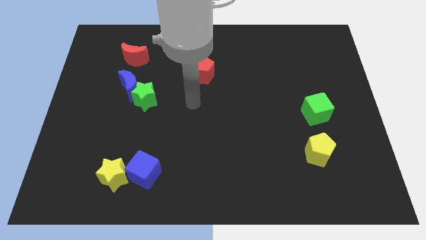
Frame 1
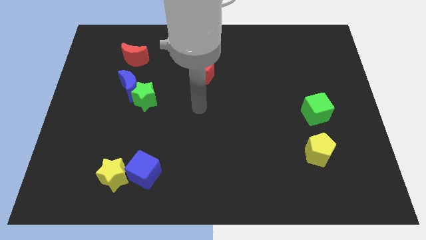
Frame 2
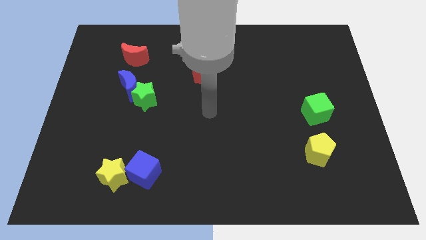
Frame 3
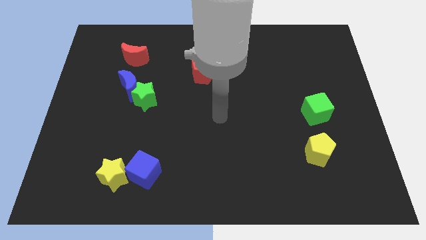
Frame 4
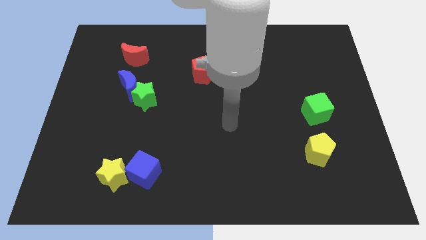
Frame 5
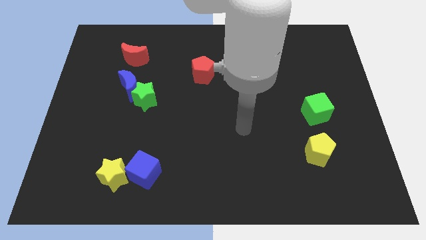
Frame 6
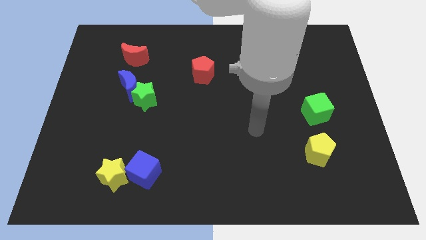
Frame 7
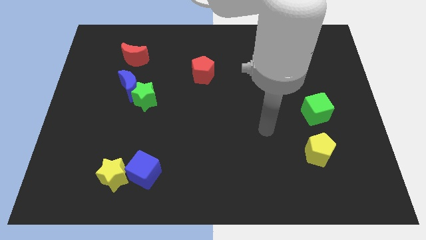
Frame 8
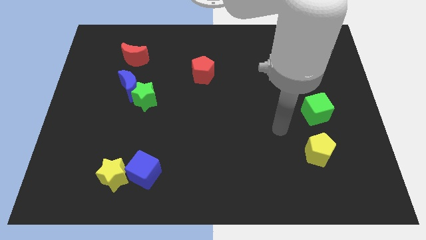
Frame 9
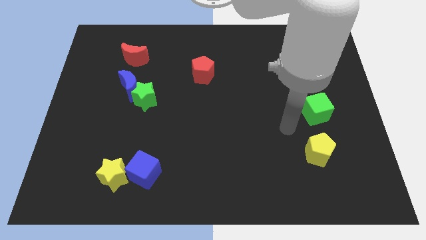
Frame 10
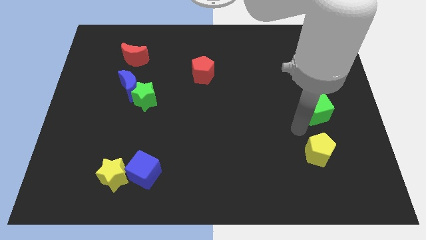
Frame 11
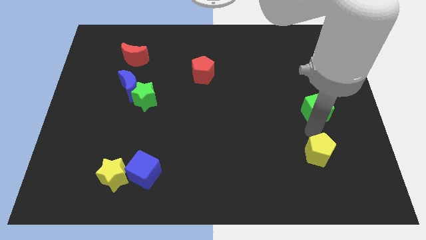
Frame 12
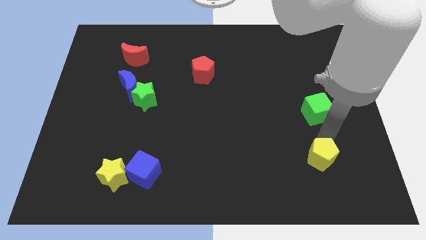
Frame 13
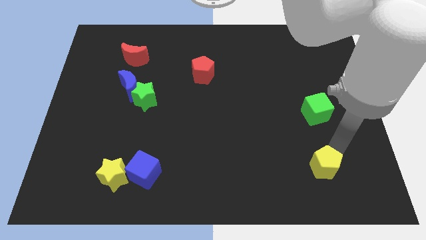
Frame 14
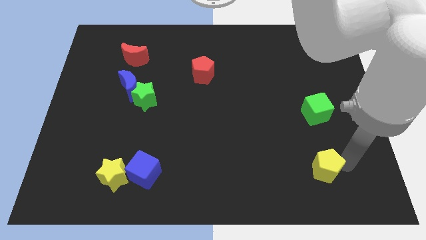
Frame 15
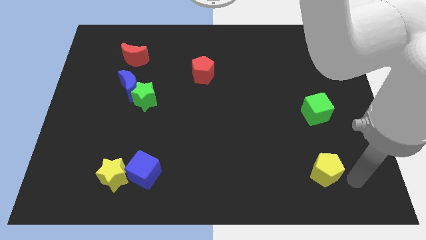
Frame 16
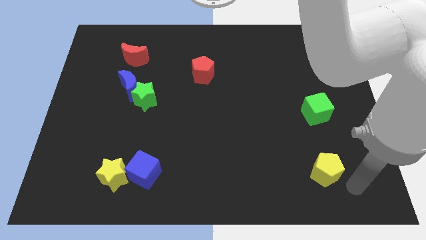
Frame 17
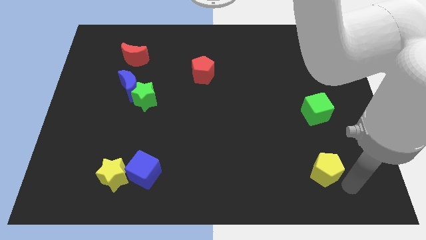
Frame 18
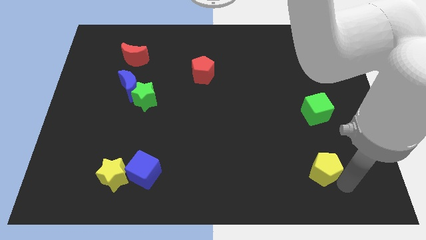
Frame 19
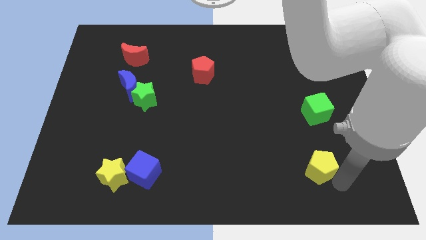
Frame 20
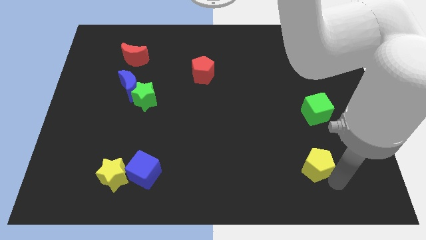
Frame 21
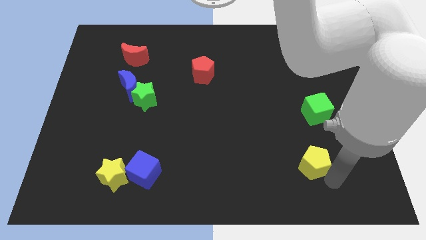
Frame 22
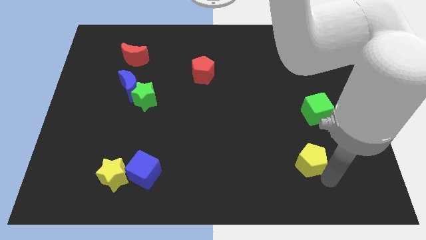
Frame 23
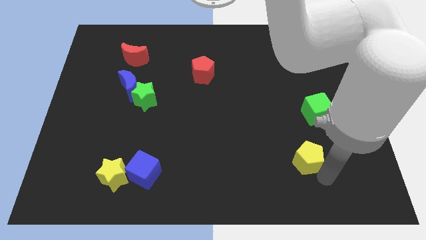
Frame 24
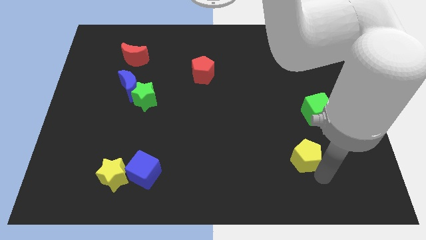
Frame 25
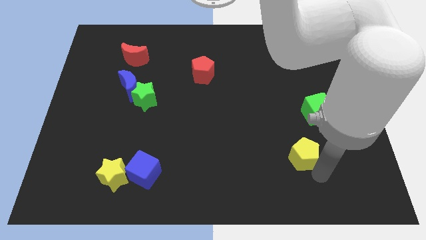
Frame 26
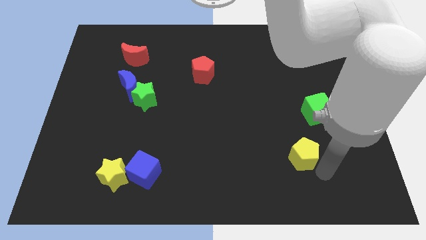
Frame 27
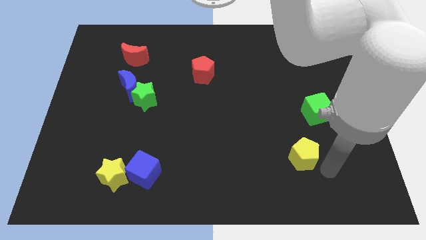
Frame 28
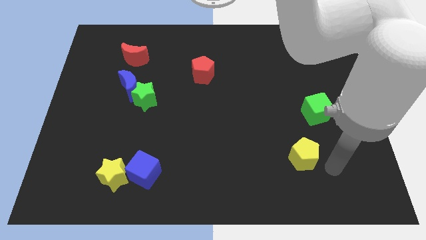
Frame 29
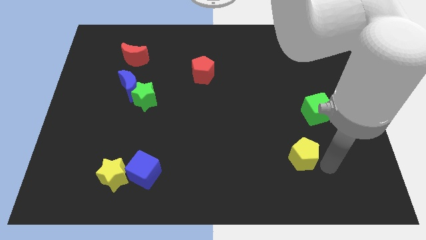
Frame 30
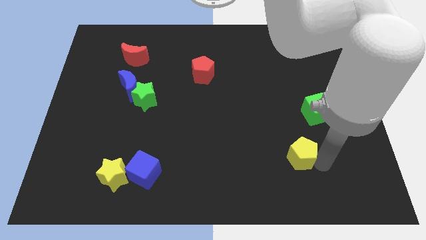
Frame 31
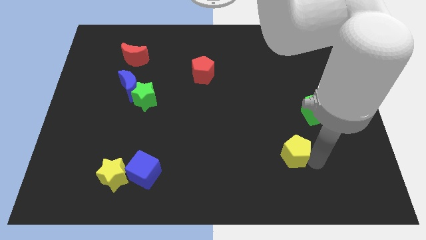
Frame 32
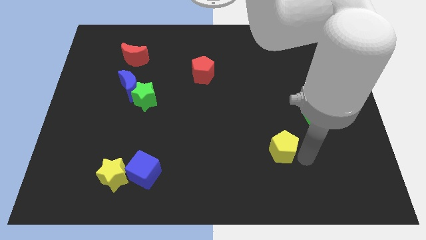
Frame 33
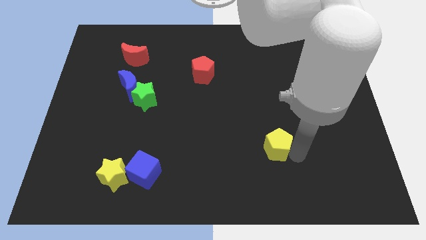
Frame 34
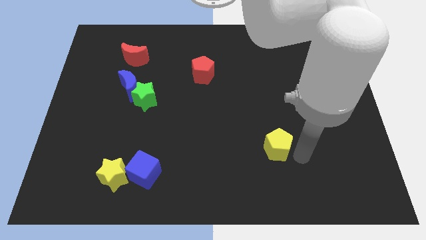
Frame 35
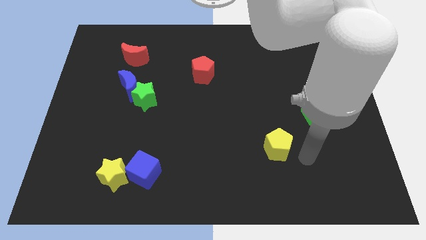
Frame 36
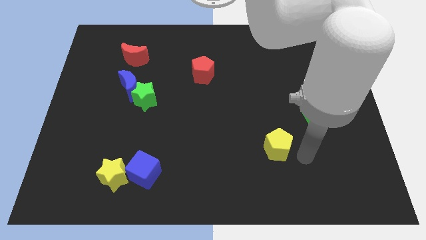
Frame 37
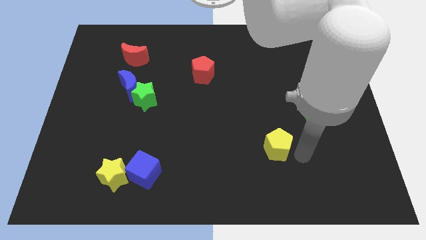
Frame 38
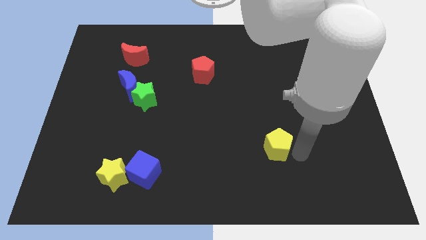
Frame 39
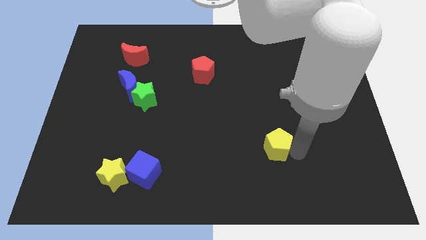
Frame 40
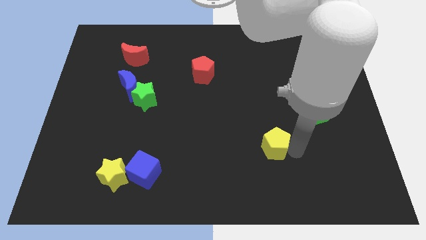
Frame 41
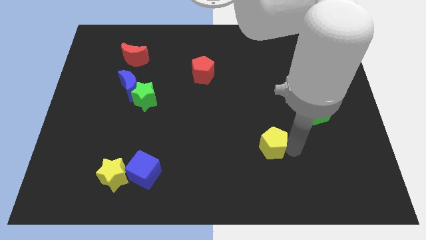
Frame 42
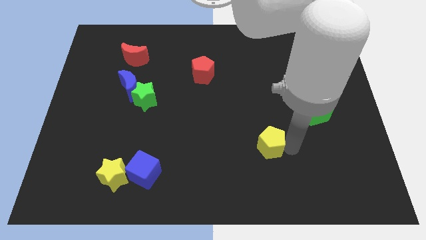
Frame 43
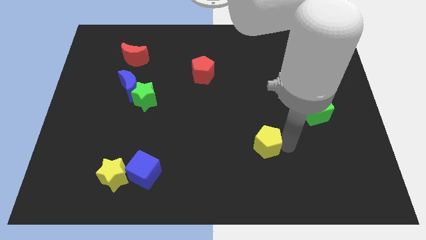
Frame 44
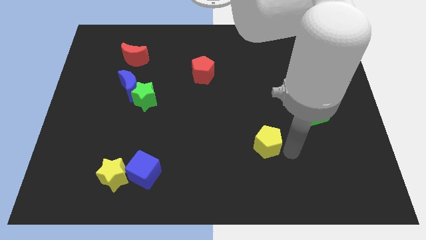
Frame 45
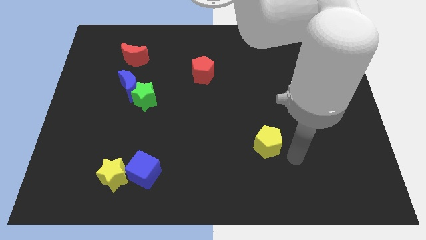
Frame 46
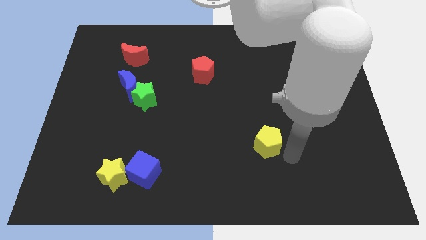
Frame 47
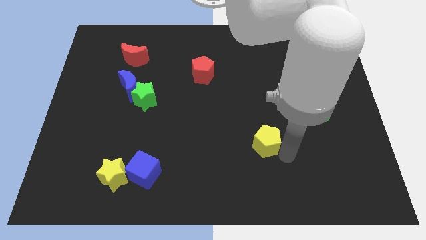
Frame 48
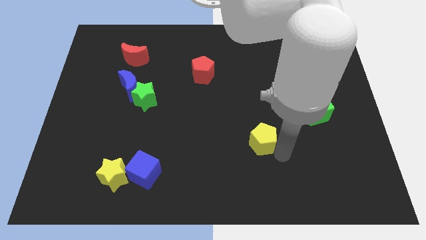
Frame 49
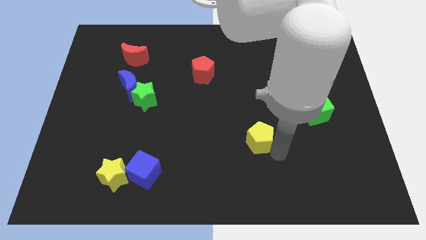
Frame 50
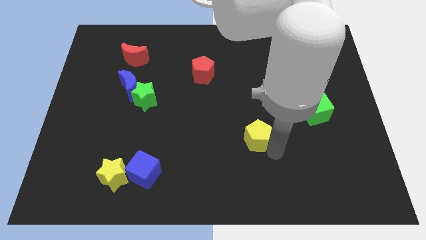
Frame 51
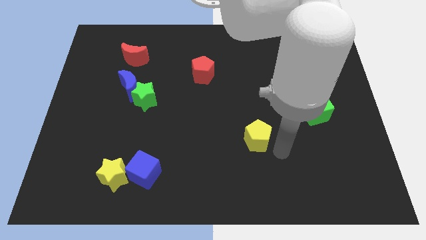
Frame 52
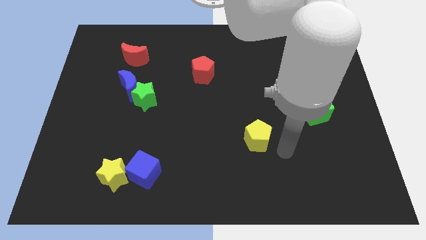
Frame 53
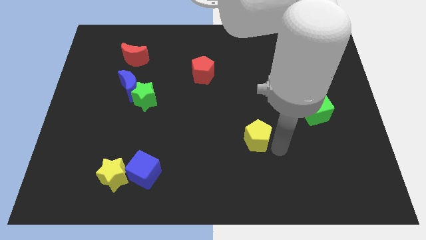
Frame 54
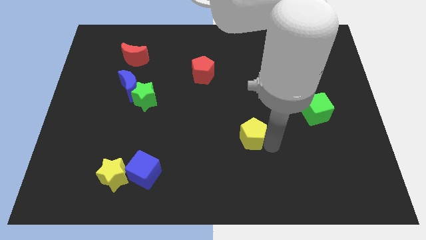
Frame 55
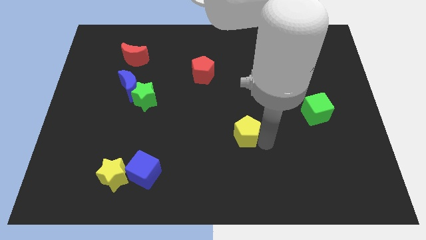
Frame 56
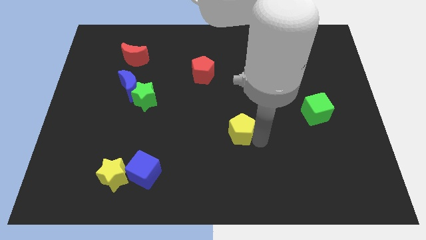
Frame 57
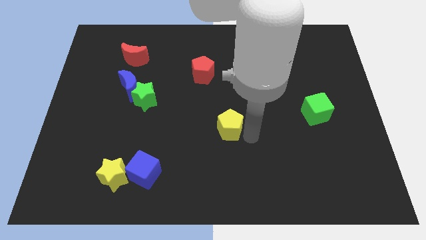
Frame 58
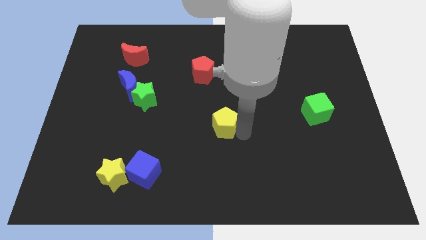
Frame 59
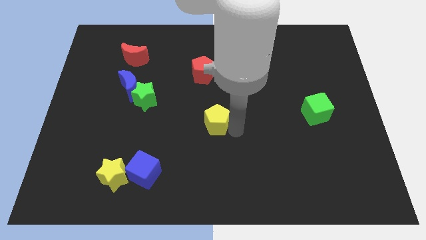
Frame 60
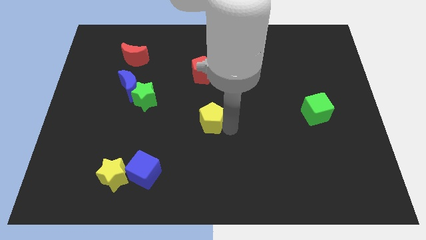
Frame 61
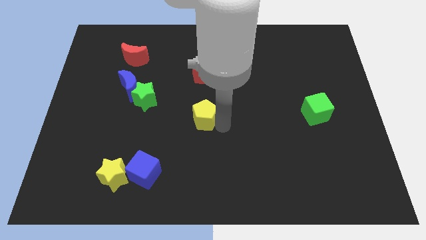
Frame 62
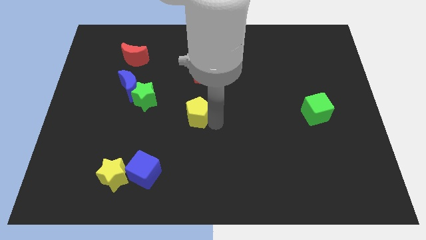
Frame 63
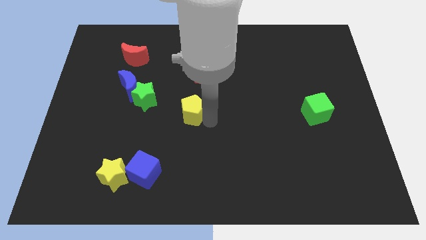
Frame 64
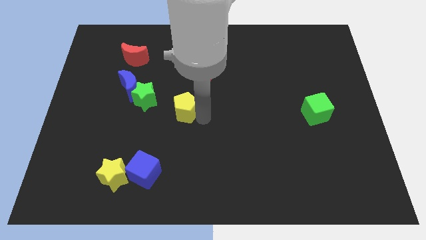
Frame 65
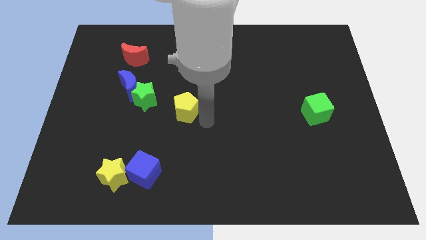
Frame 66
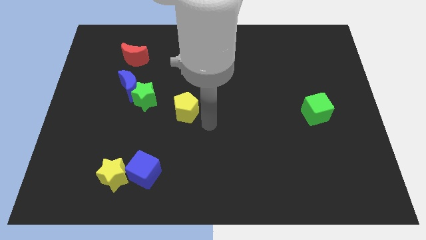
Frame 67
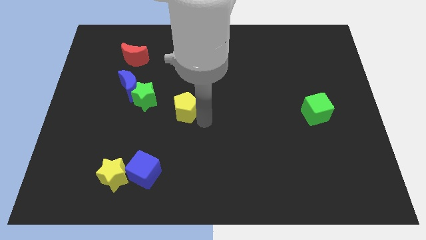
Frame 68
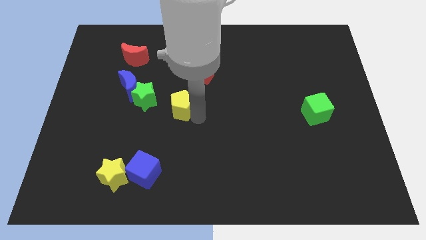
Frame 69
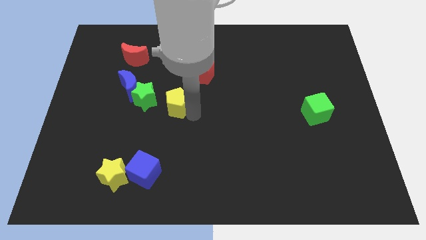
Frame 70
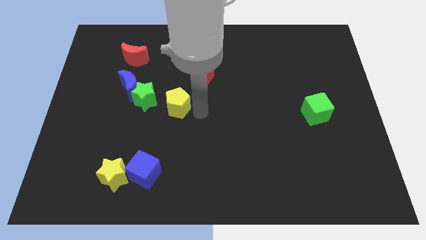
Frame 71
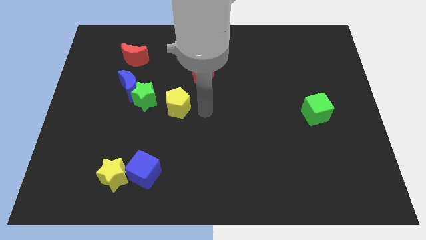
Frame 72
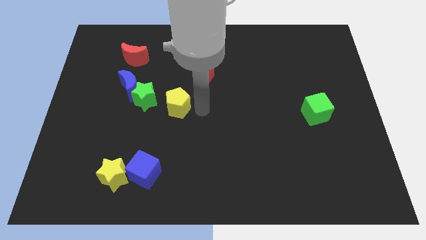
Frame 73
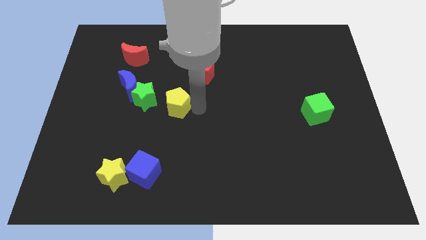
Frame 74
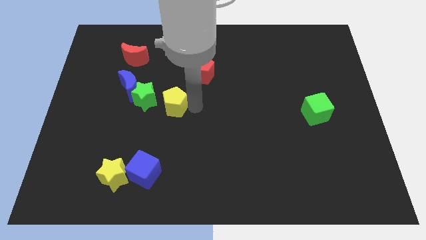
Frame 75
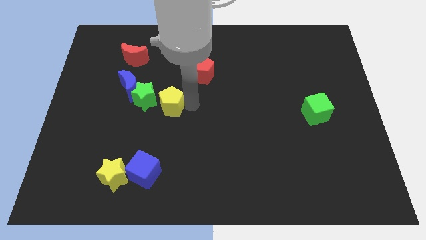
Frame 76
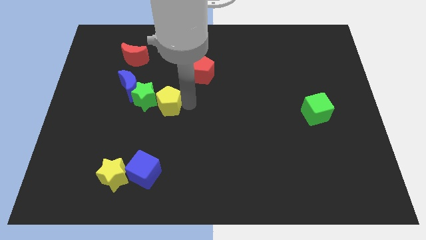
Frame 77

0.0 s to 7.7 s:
push the yellow pentagon next to the green star
